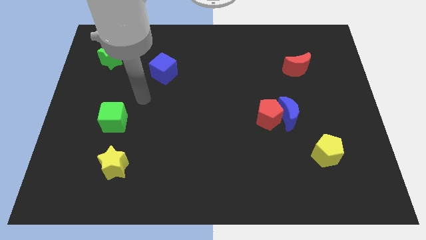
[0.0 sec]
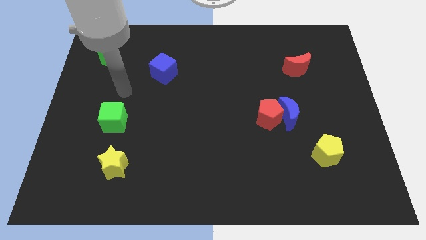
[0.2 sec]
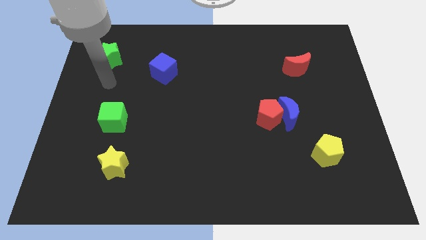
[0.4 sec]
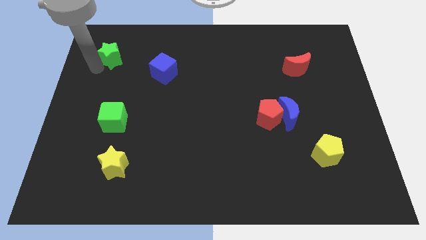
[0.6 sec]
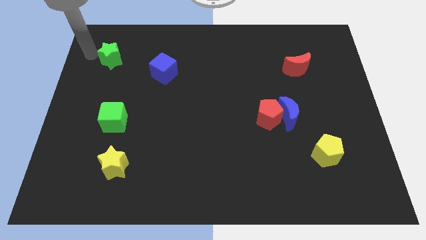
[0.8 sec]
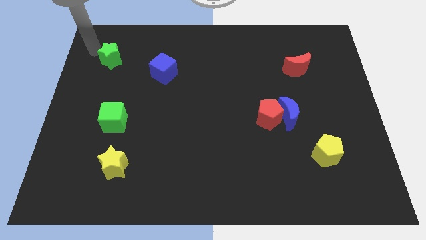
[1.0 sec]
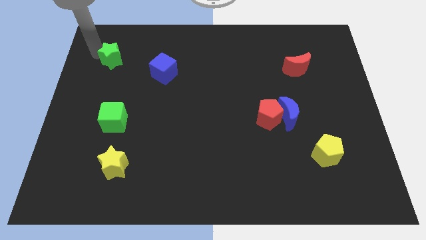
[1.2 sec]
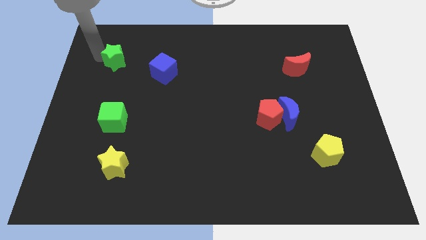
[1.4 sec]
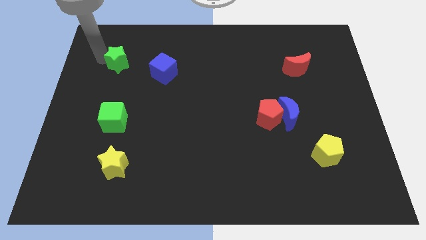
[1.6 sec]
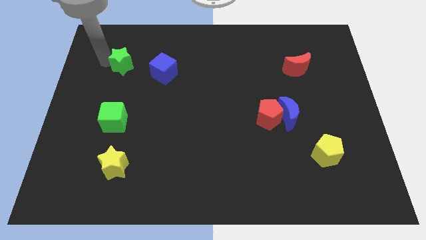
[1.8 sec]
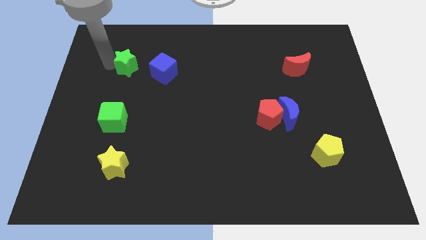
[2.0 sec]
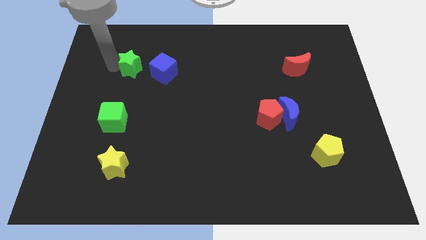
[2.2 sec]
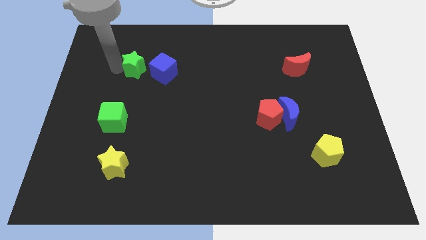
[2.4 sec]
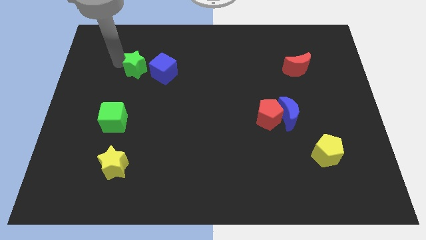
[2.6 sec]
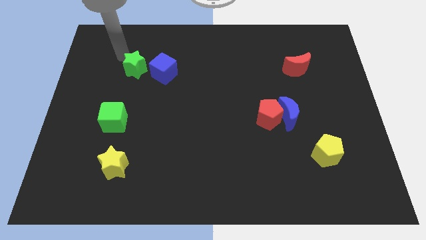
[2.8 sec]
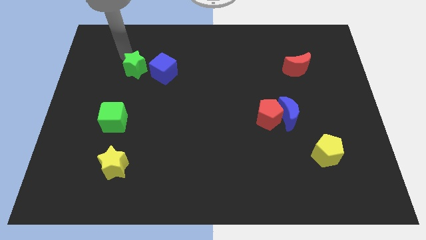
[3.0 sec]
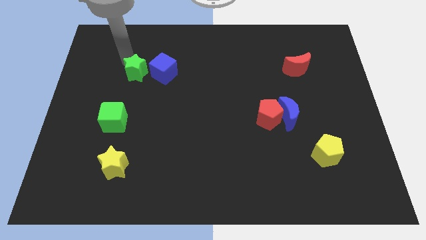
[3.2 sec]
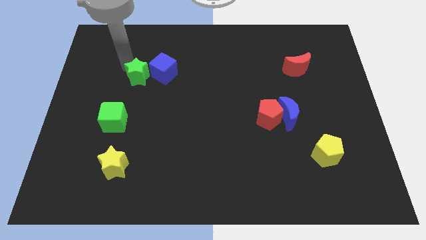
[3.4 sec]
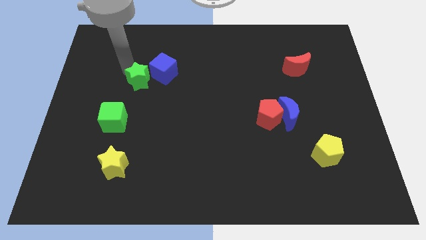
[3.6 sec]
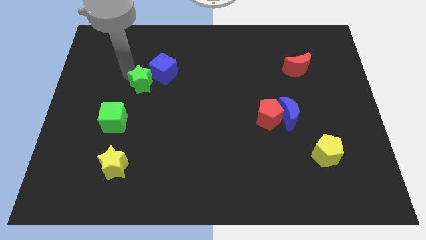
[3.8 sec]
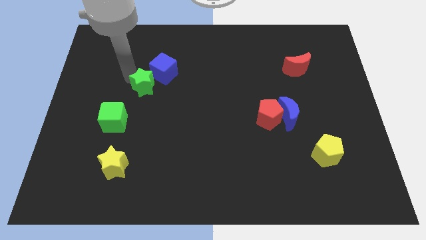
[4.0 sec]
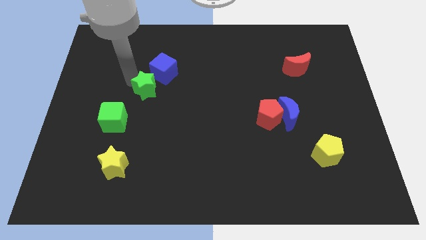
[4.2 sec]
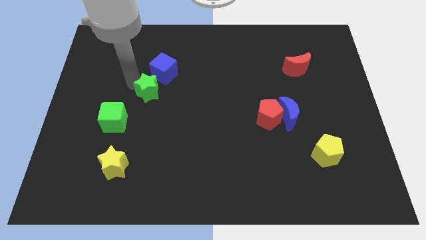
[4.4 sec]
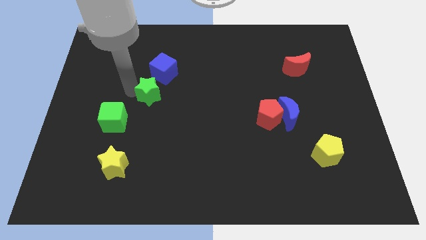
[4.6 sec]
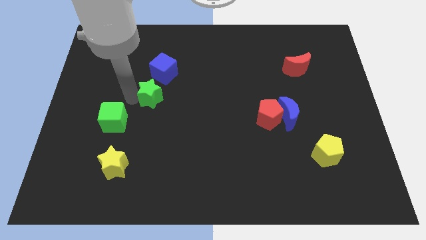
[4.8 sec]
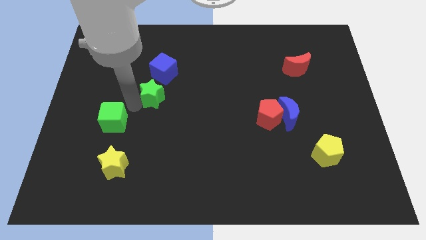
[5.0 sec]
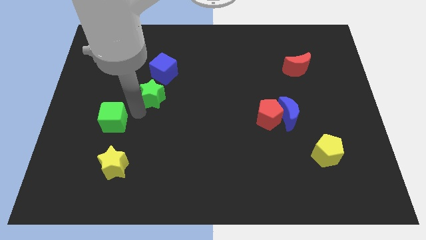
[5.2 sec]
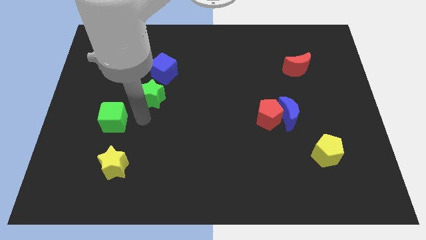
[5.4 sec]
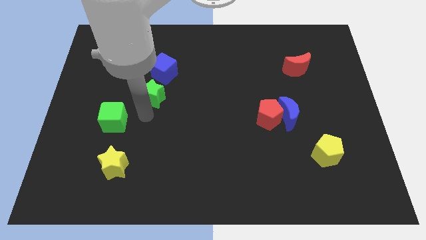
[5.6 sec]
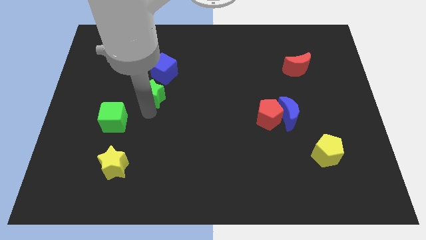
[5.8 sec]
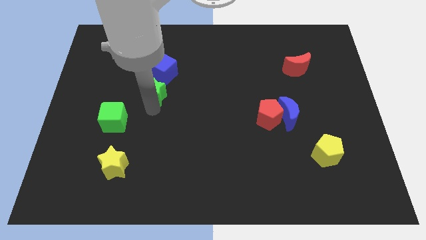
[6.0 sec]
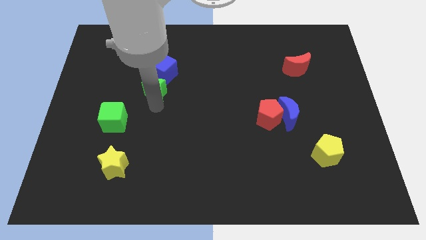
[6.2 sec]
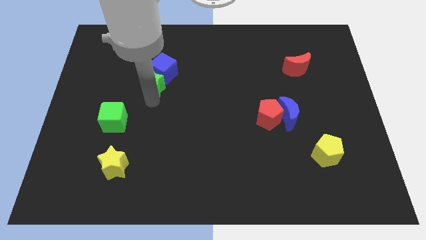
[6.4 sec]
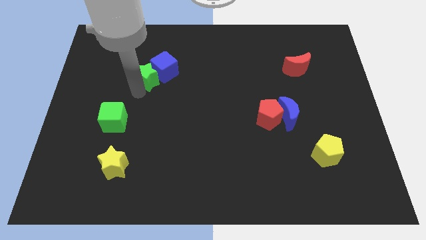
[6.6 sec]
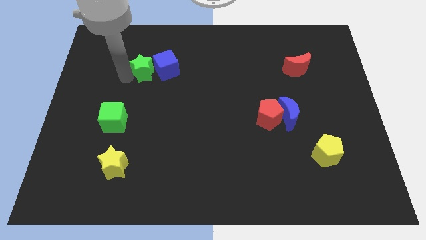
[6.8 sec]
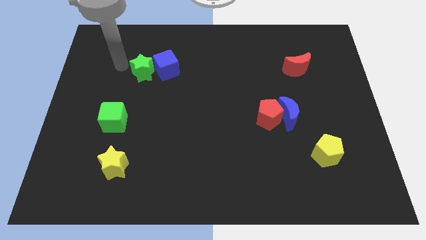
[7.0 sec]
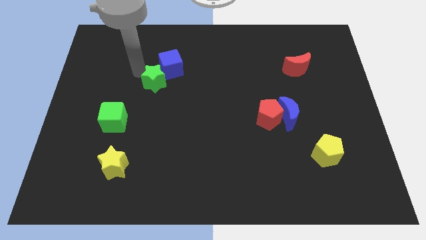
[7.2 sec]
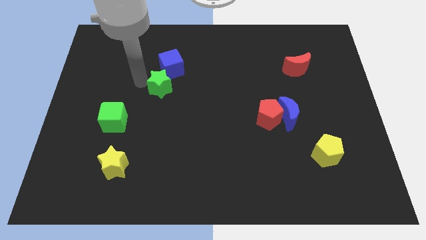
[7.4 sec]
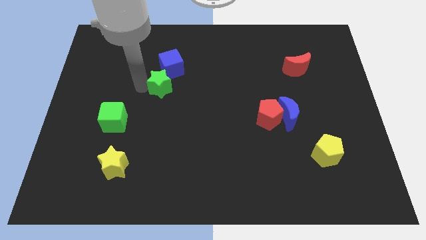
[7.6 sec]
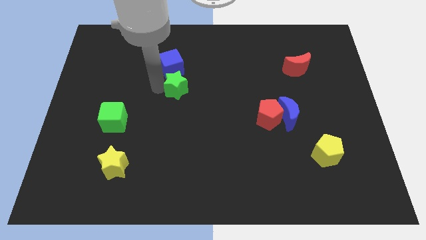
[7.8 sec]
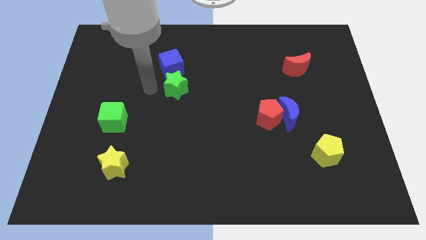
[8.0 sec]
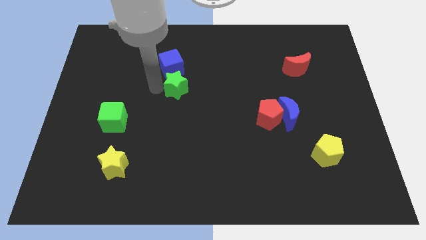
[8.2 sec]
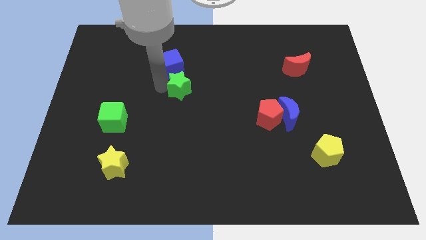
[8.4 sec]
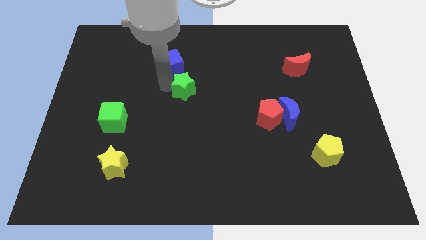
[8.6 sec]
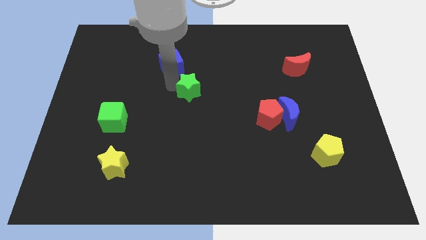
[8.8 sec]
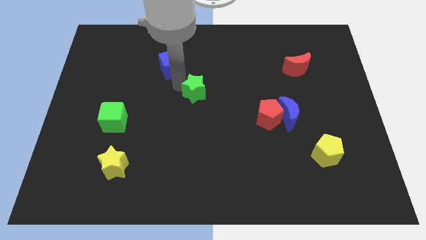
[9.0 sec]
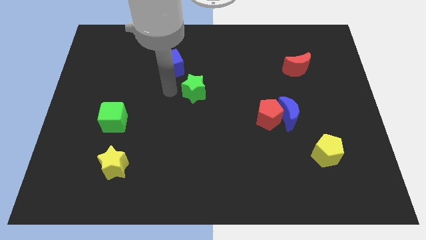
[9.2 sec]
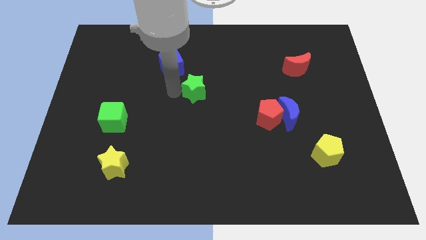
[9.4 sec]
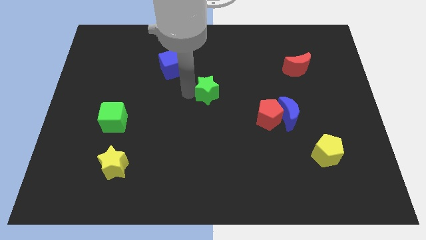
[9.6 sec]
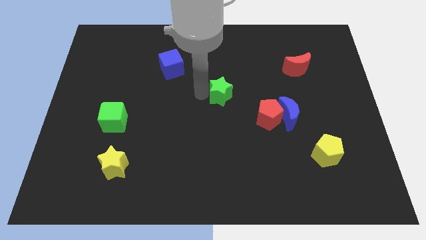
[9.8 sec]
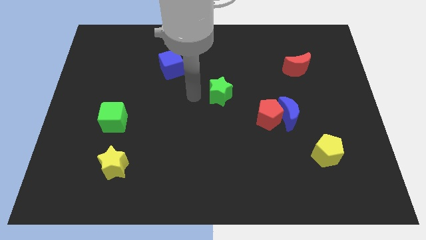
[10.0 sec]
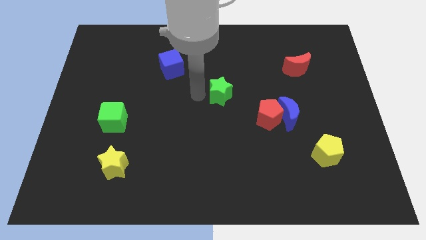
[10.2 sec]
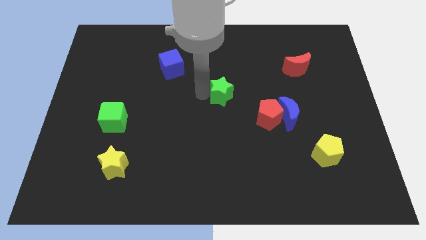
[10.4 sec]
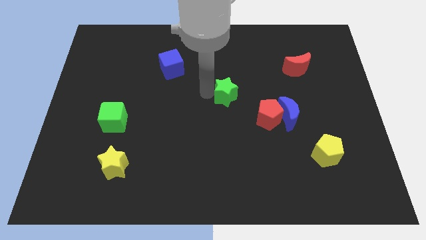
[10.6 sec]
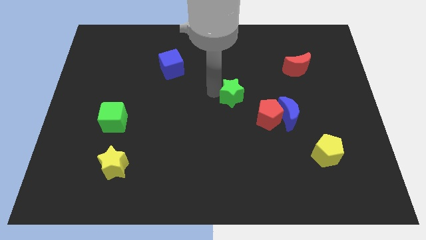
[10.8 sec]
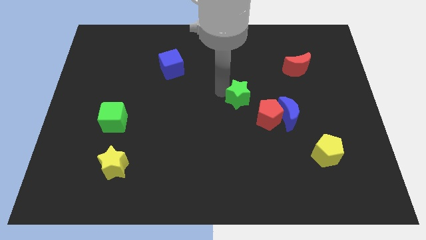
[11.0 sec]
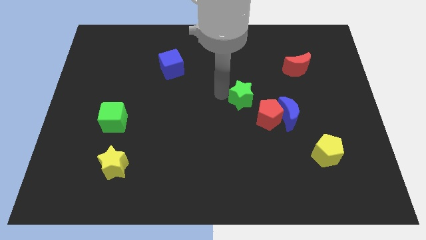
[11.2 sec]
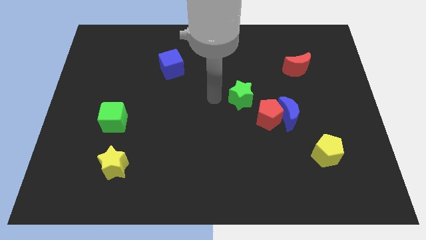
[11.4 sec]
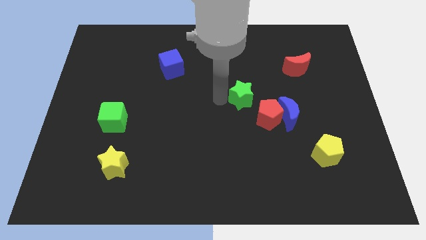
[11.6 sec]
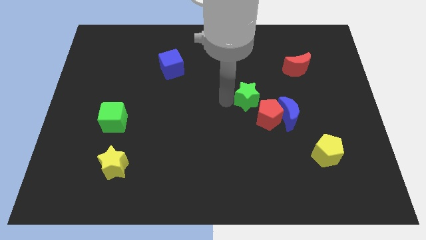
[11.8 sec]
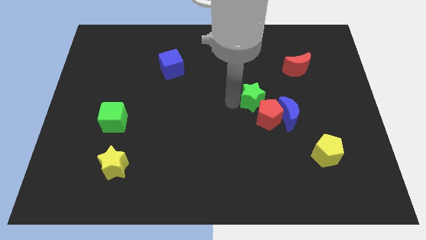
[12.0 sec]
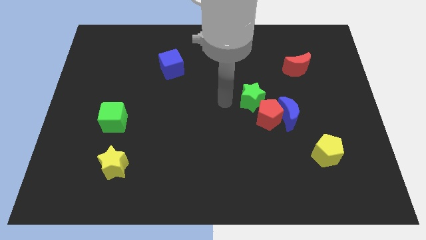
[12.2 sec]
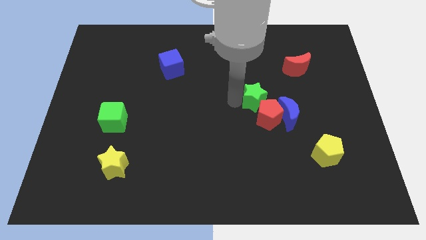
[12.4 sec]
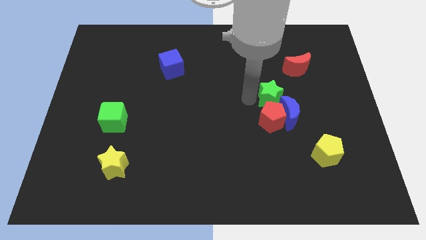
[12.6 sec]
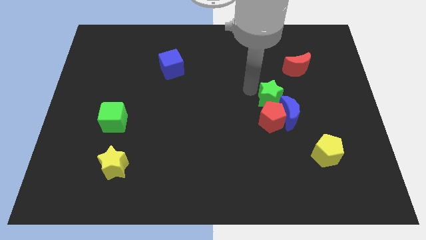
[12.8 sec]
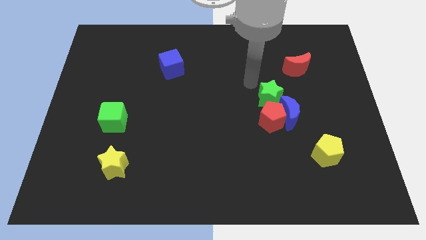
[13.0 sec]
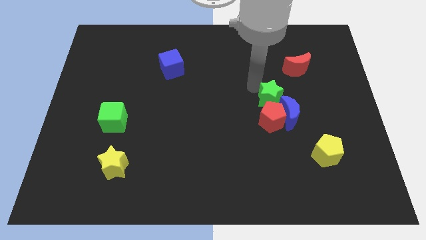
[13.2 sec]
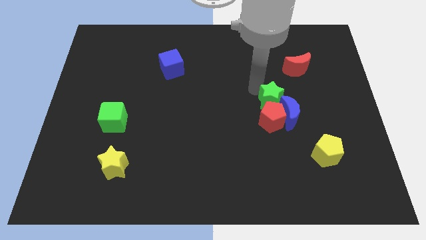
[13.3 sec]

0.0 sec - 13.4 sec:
put the green star next to the blue moon
